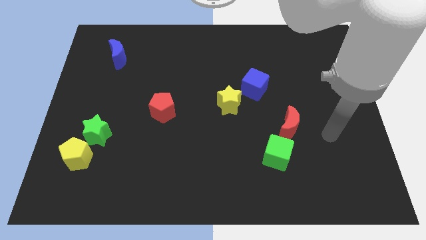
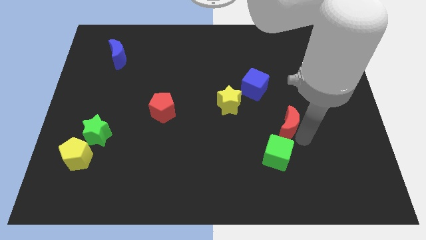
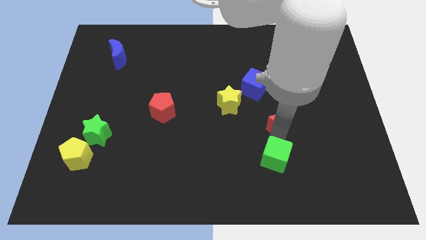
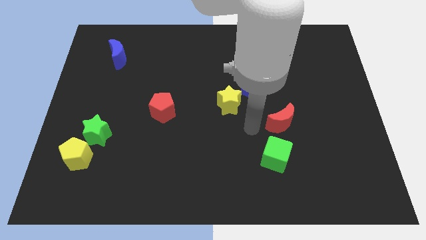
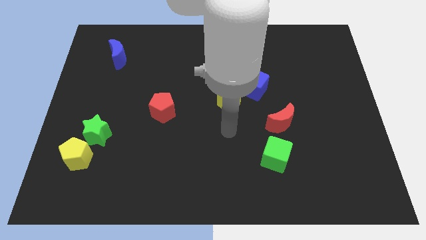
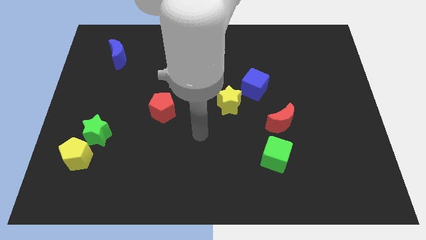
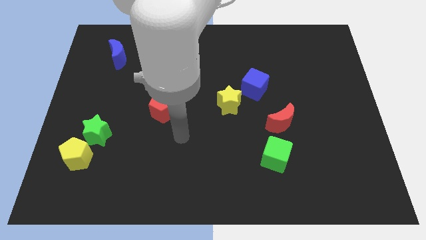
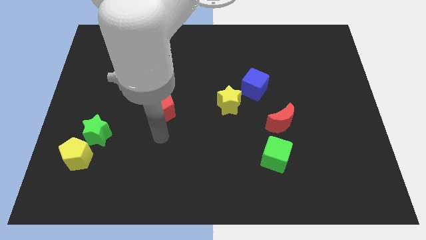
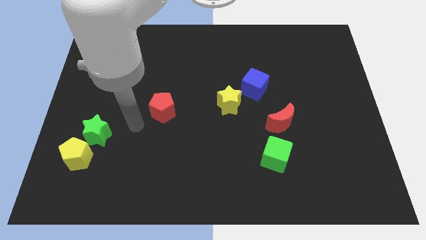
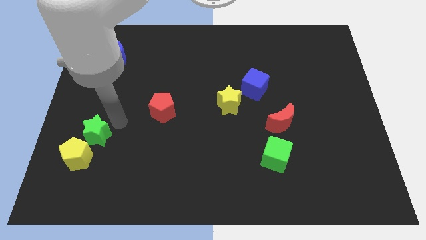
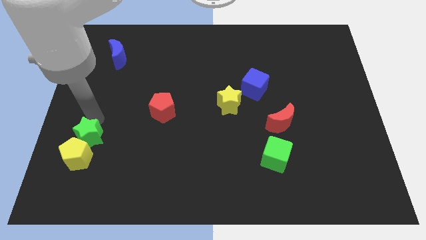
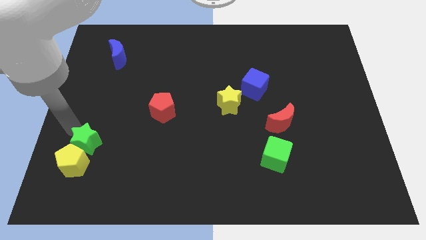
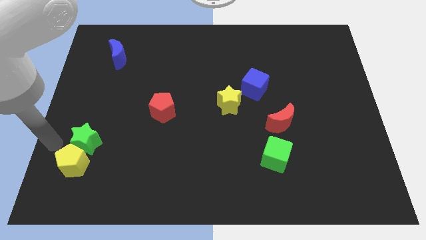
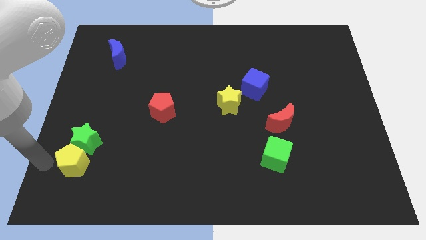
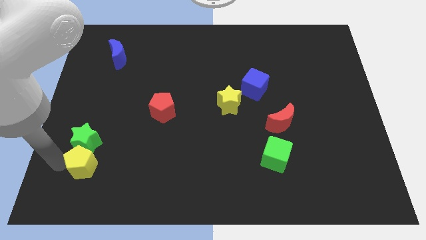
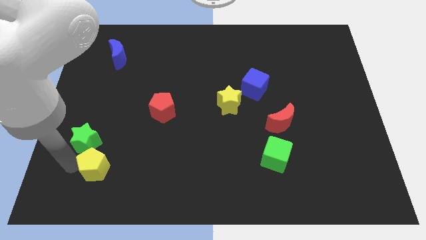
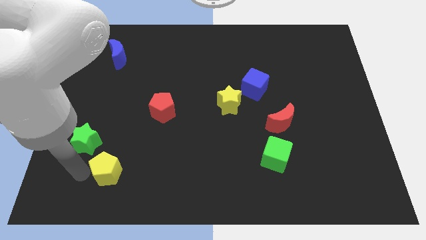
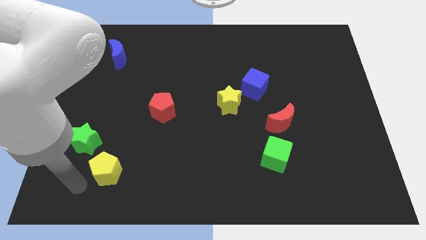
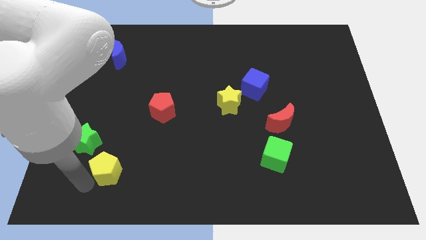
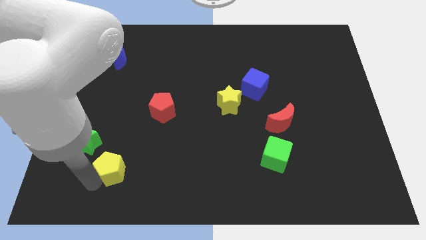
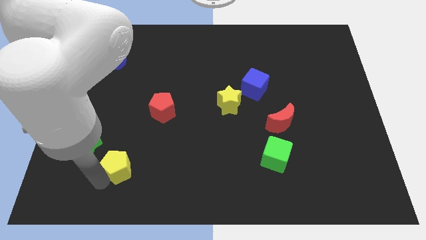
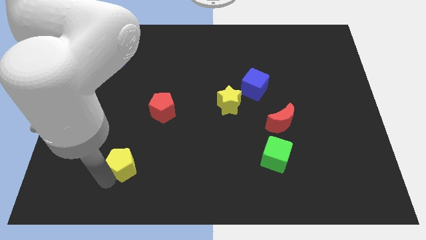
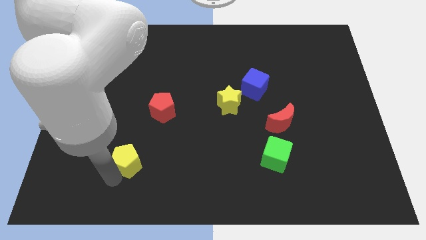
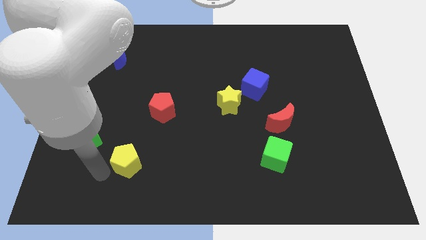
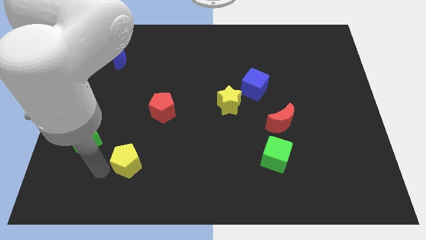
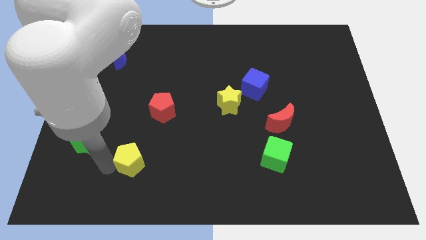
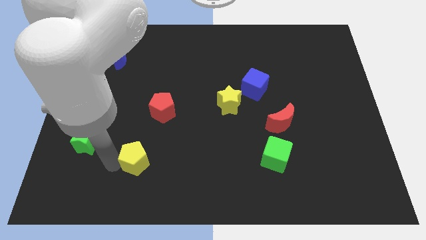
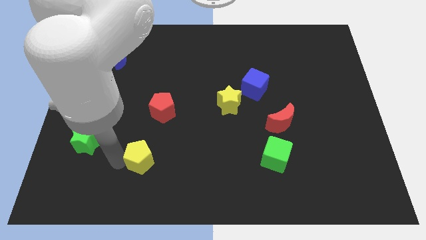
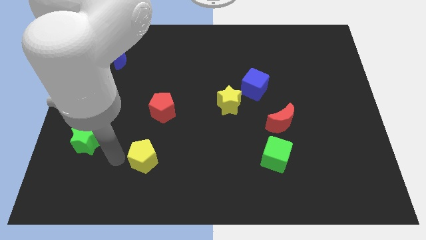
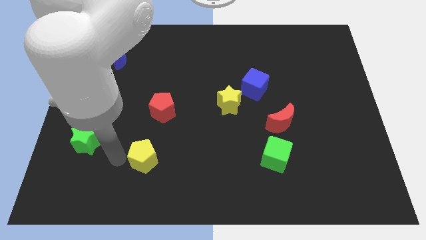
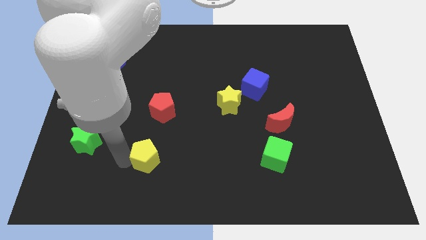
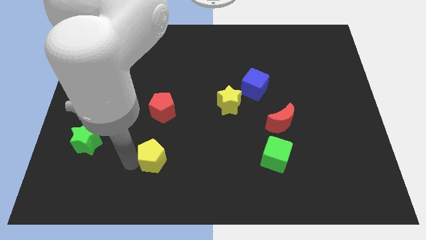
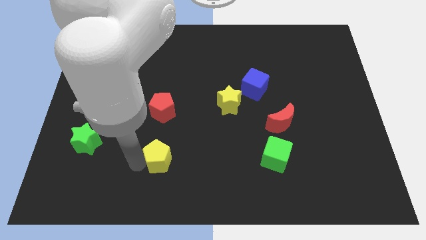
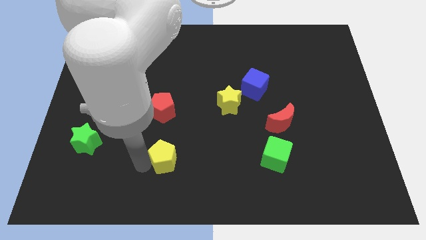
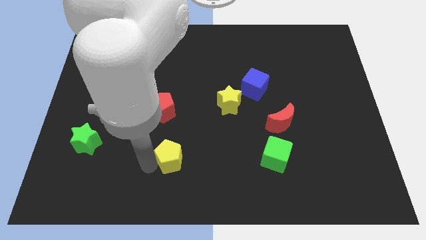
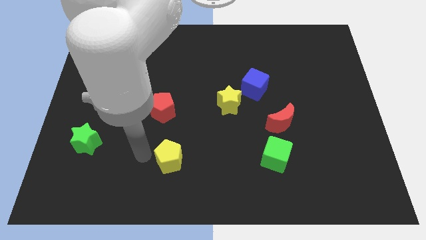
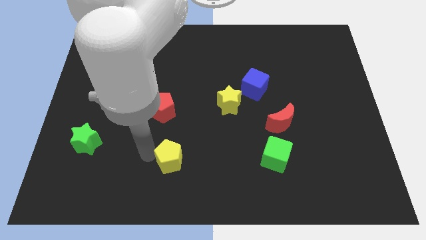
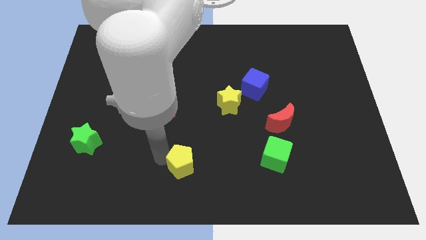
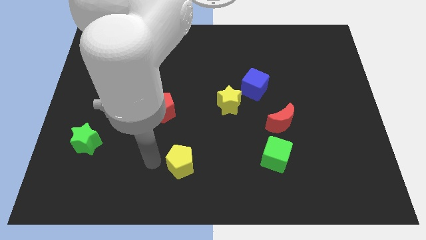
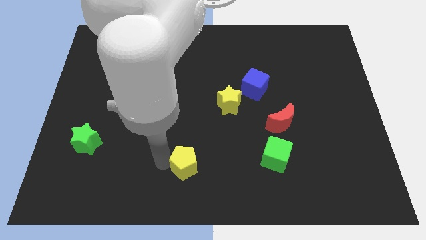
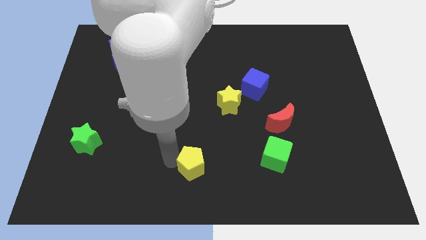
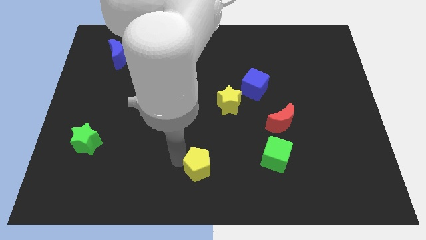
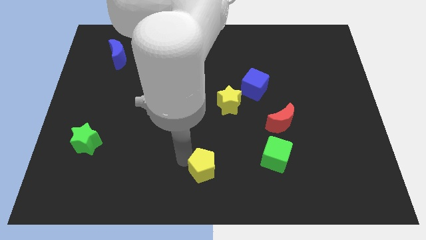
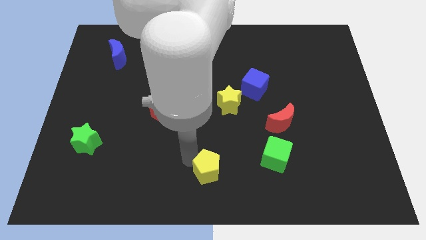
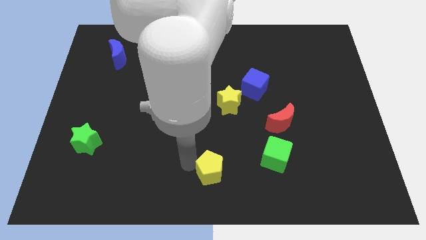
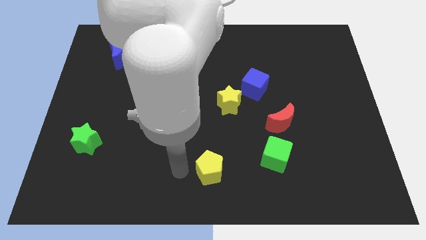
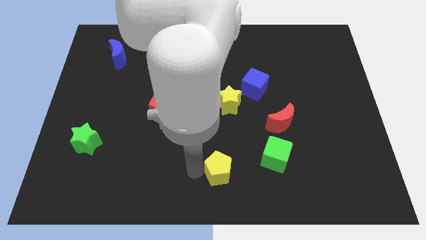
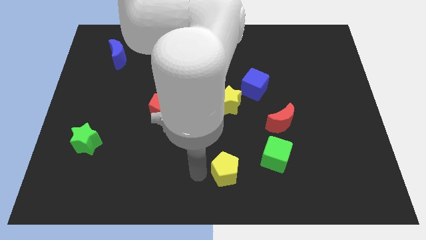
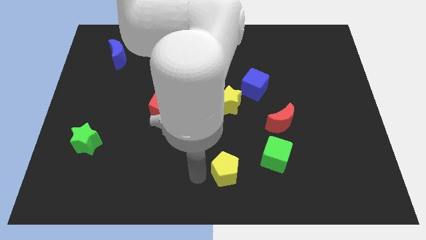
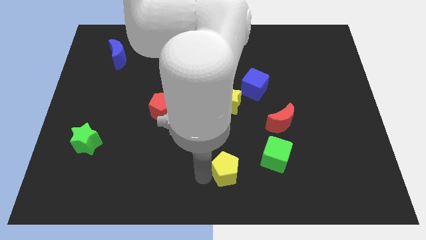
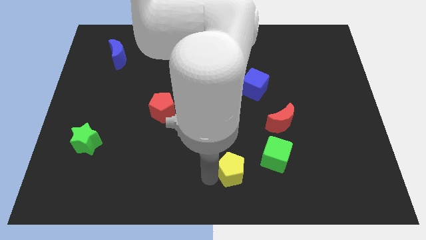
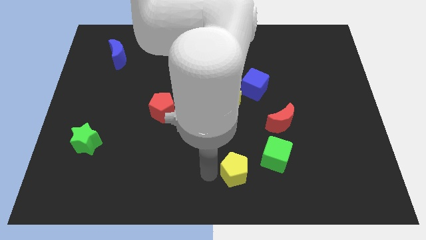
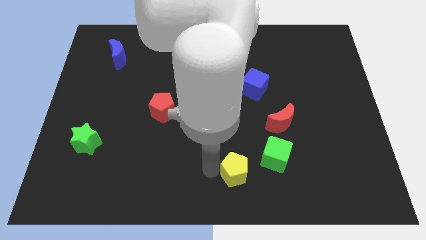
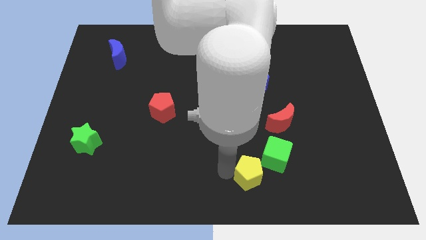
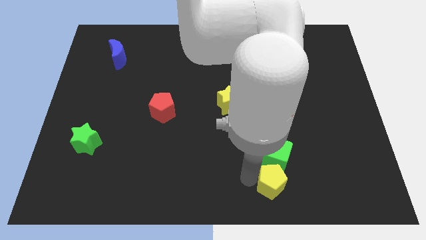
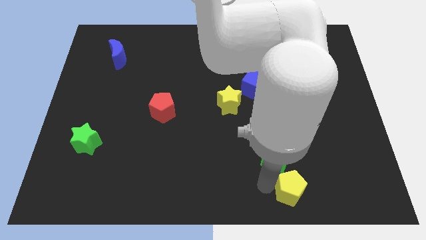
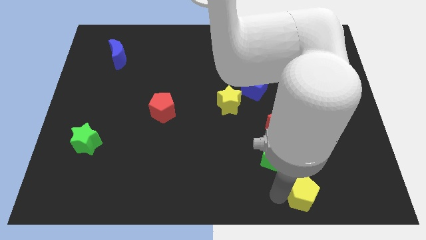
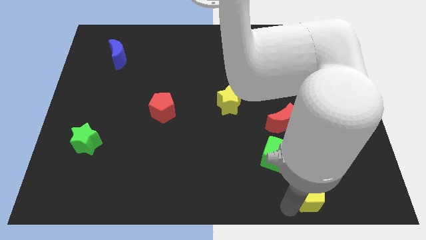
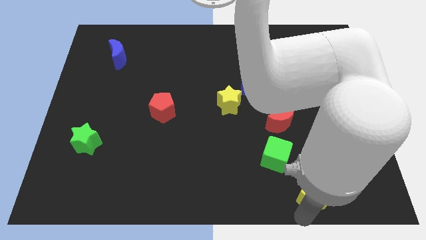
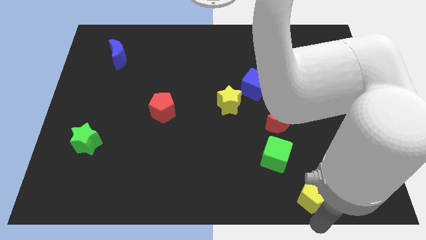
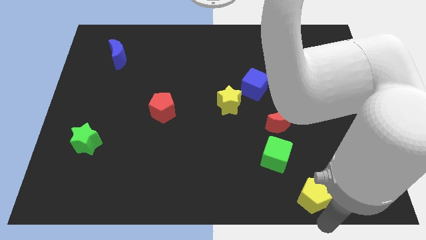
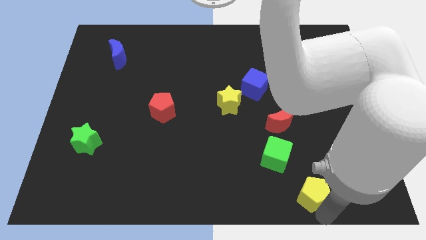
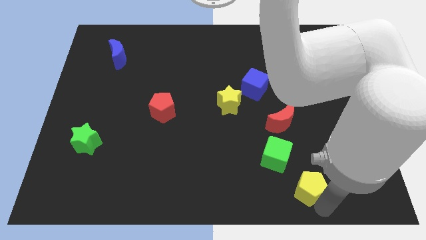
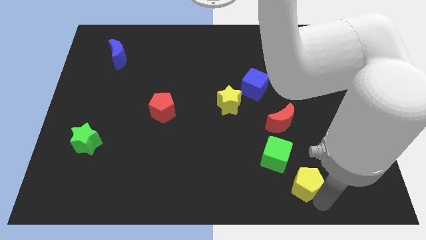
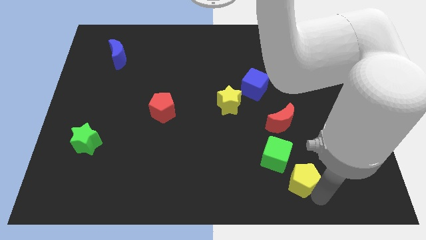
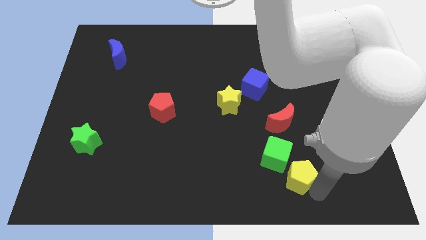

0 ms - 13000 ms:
put the yellow pentagon to the right of the green cube
